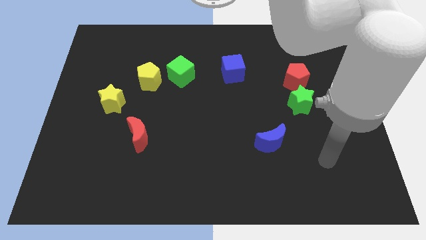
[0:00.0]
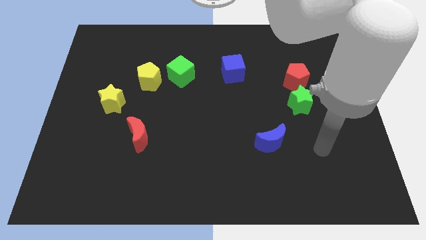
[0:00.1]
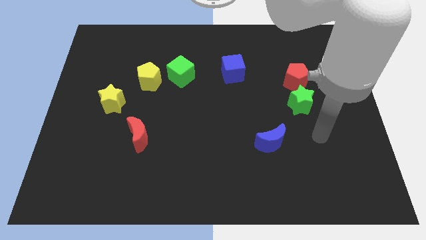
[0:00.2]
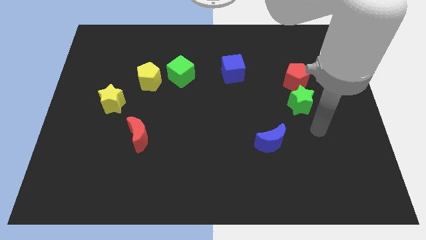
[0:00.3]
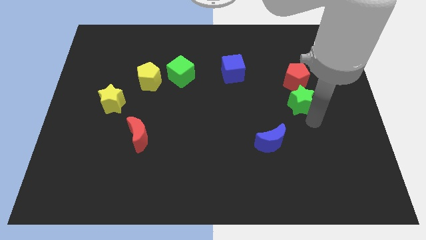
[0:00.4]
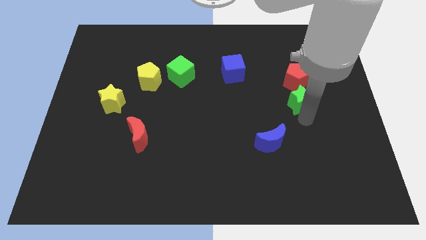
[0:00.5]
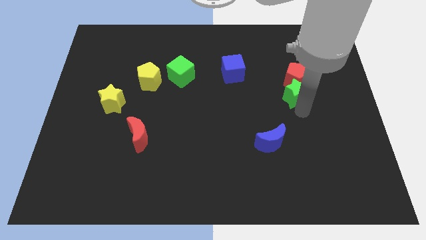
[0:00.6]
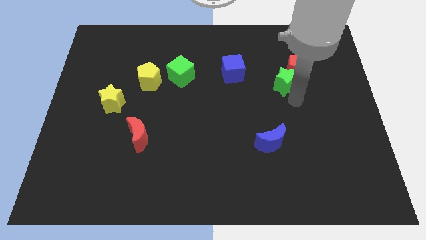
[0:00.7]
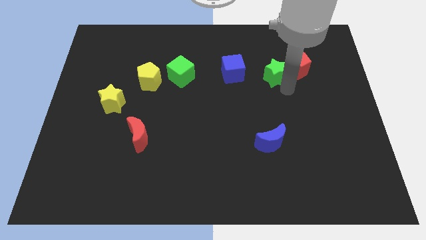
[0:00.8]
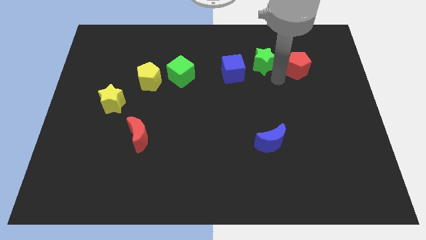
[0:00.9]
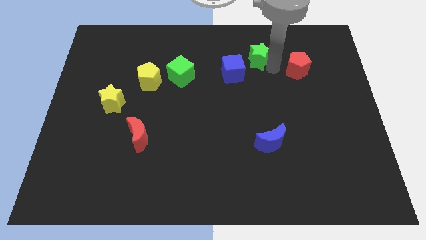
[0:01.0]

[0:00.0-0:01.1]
separate the red pentagon from the green star

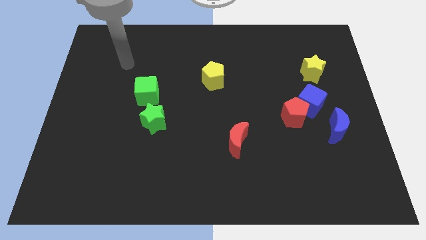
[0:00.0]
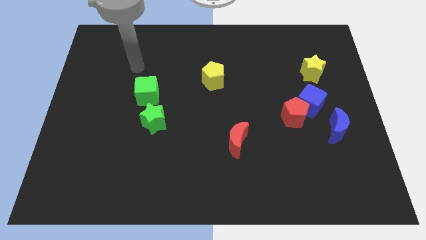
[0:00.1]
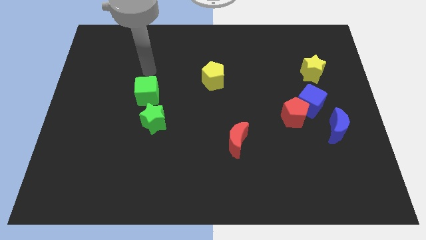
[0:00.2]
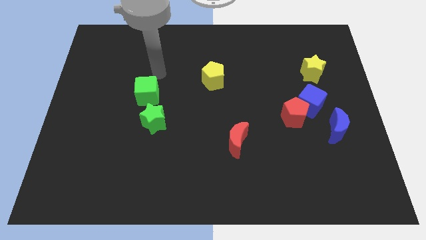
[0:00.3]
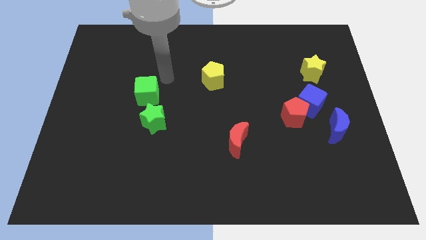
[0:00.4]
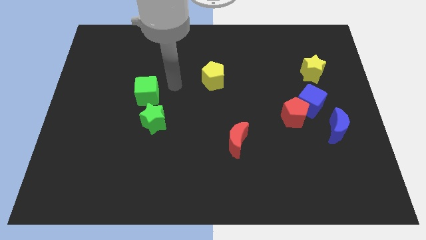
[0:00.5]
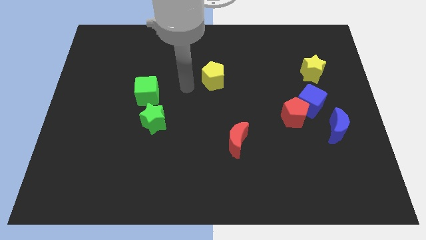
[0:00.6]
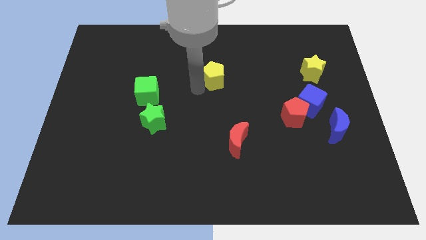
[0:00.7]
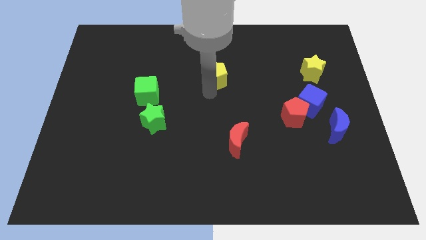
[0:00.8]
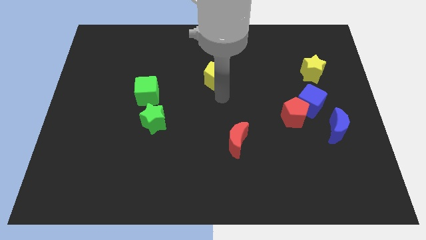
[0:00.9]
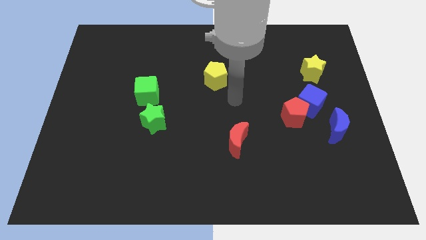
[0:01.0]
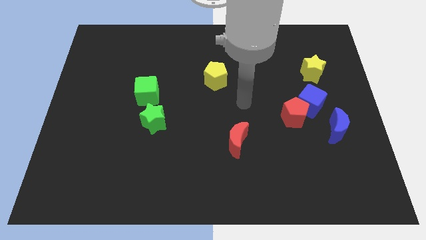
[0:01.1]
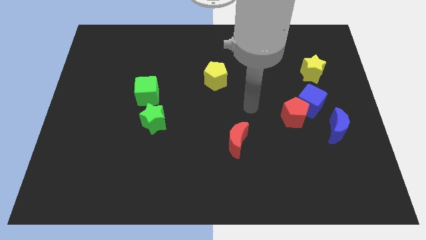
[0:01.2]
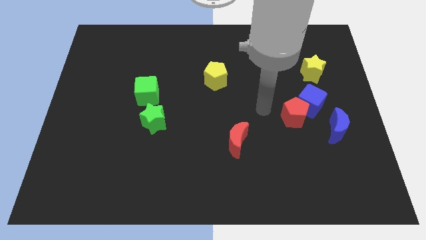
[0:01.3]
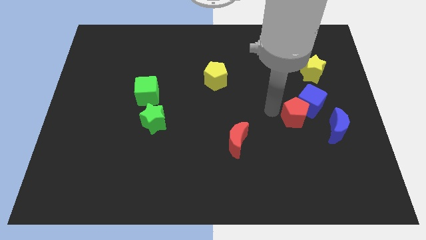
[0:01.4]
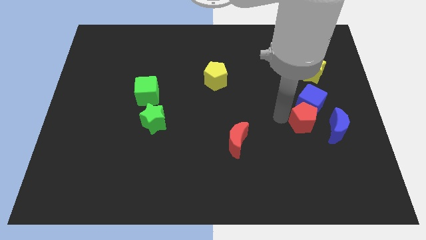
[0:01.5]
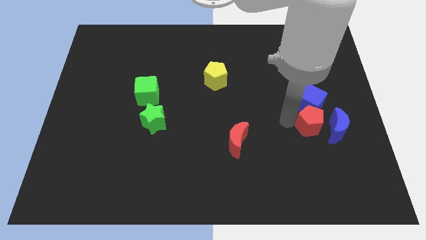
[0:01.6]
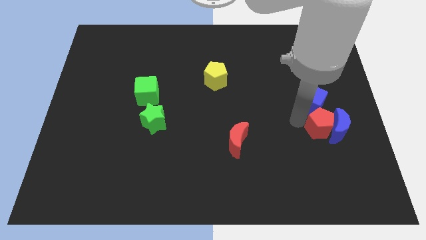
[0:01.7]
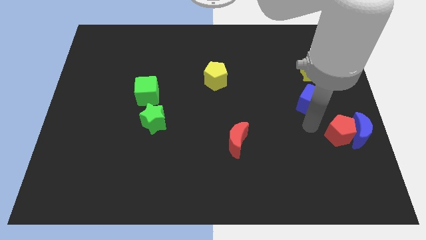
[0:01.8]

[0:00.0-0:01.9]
move the blue cube away from the red pentagon and blue moon

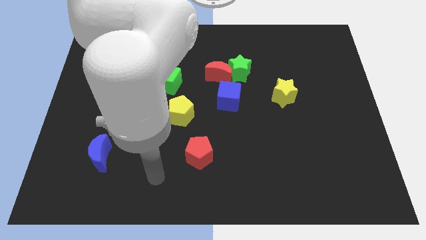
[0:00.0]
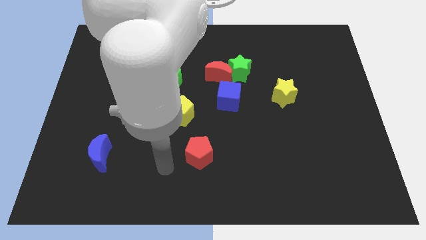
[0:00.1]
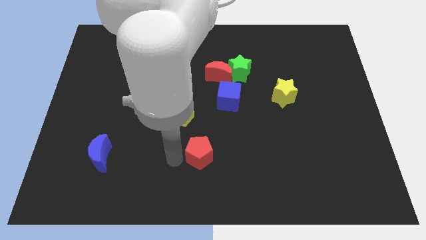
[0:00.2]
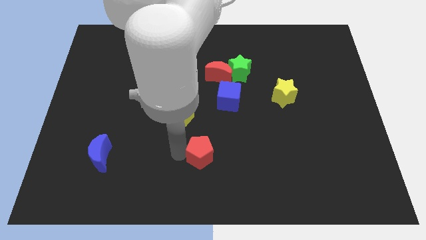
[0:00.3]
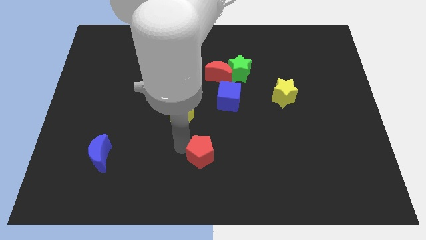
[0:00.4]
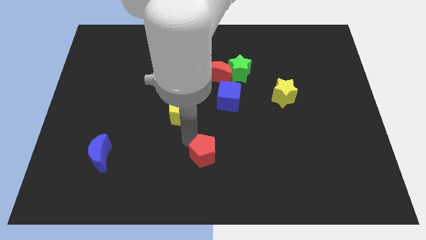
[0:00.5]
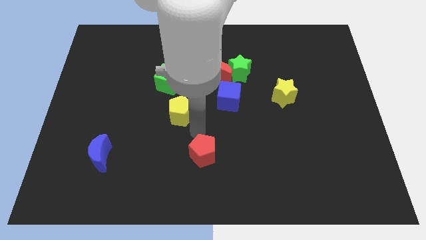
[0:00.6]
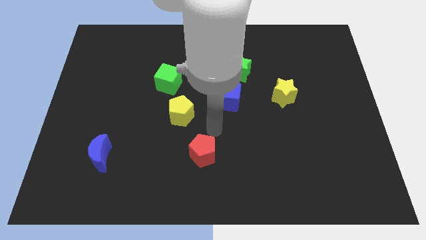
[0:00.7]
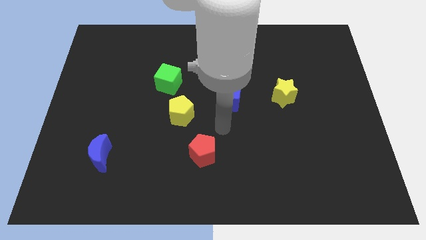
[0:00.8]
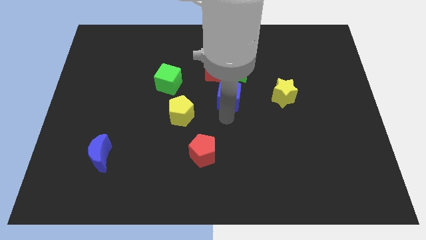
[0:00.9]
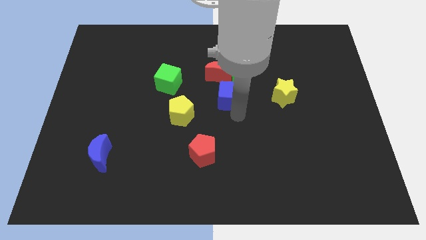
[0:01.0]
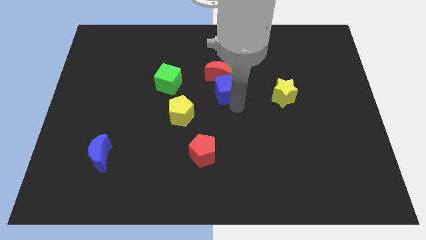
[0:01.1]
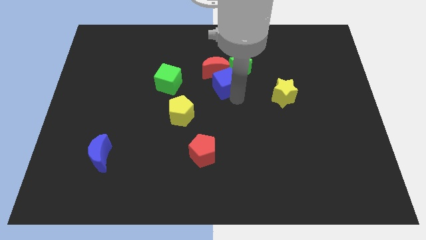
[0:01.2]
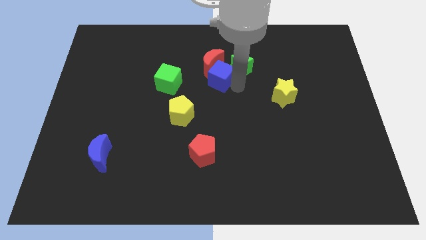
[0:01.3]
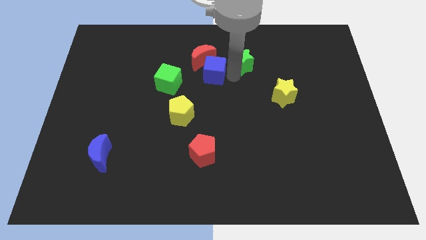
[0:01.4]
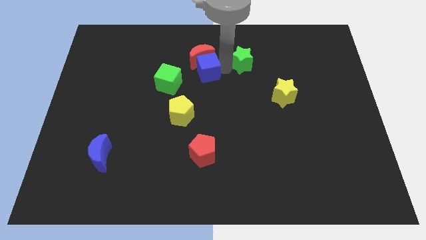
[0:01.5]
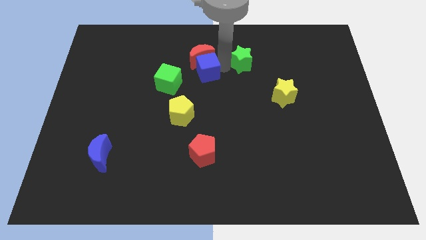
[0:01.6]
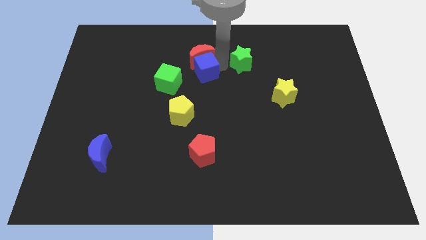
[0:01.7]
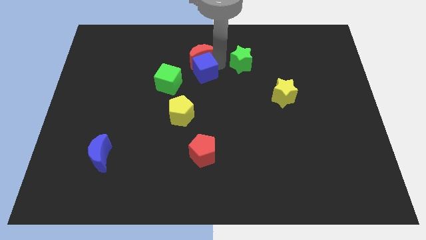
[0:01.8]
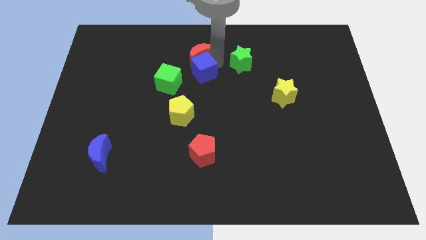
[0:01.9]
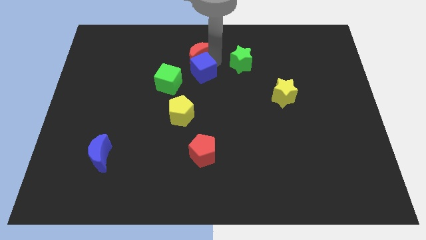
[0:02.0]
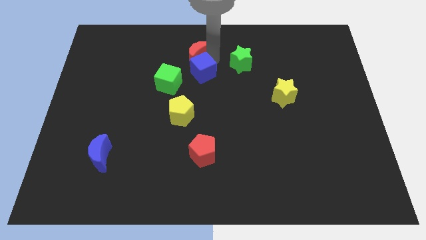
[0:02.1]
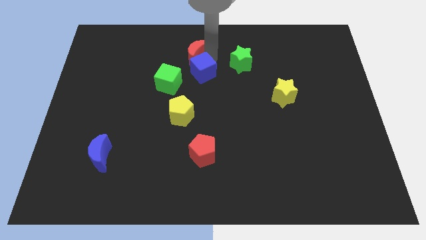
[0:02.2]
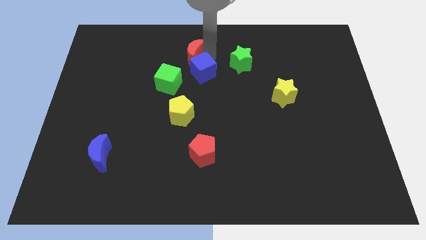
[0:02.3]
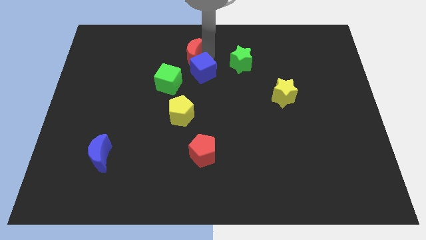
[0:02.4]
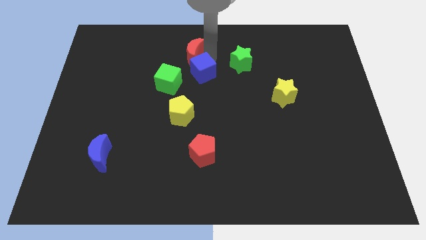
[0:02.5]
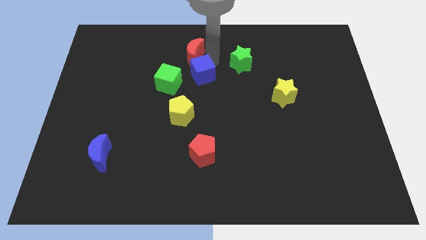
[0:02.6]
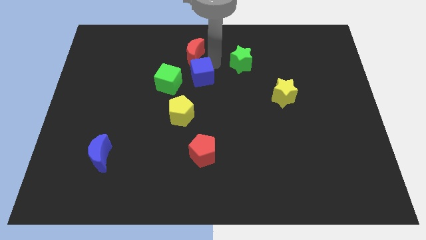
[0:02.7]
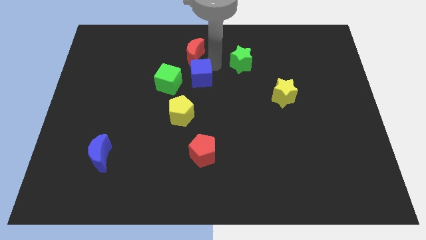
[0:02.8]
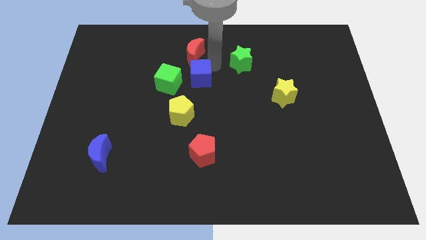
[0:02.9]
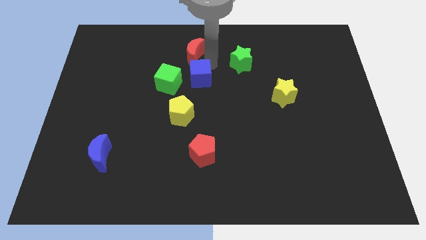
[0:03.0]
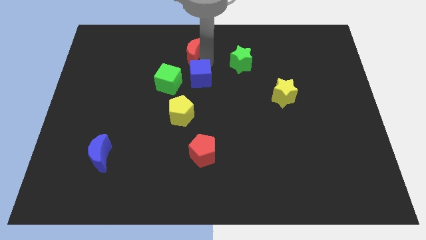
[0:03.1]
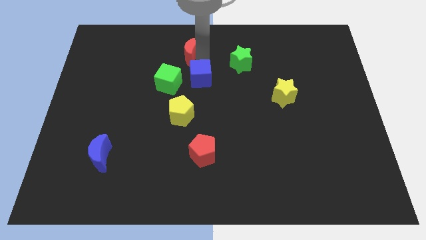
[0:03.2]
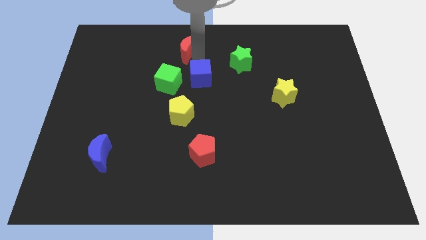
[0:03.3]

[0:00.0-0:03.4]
separate the red moon from the green star and blue cube

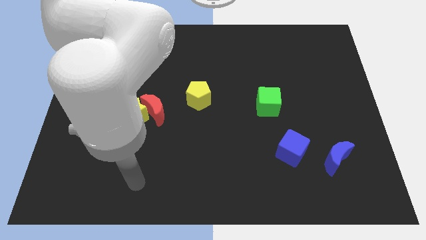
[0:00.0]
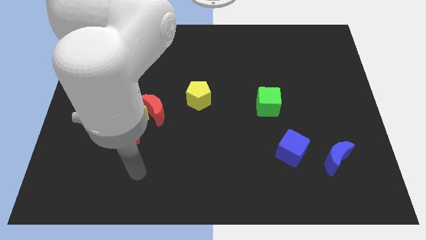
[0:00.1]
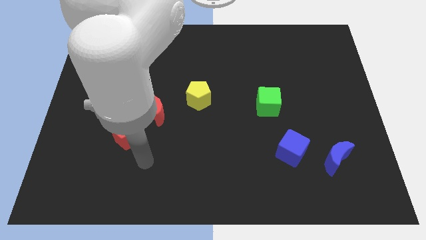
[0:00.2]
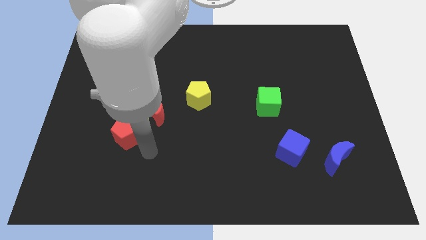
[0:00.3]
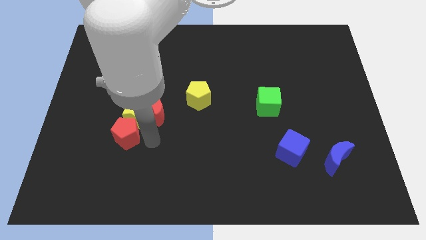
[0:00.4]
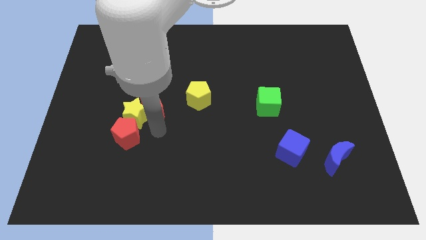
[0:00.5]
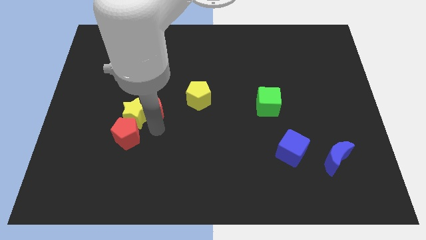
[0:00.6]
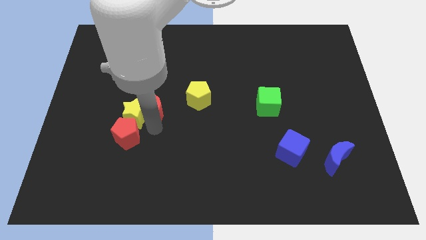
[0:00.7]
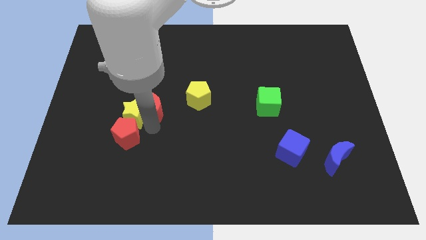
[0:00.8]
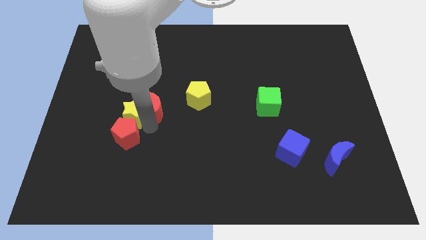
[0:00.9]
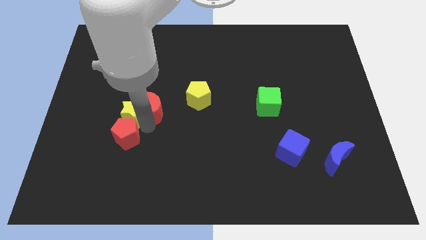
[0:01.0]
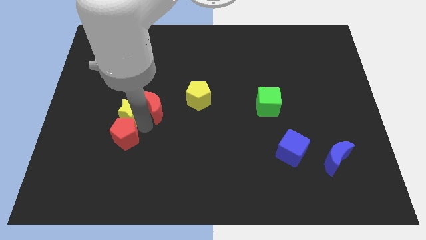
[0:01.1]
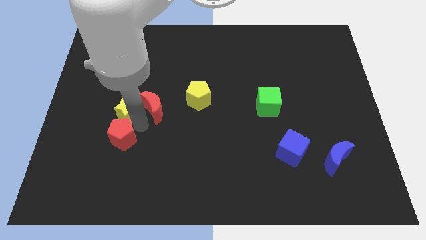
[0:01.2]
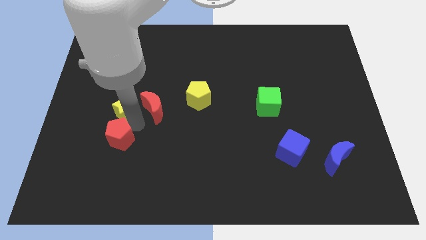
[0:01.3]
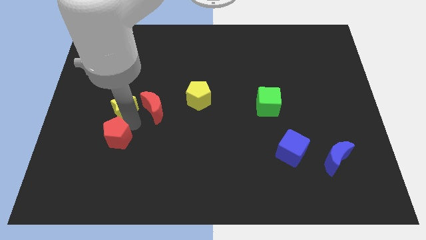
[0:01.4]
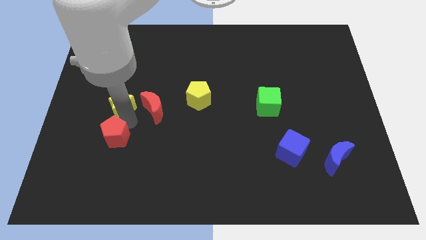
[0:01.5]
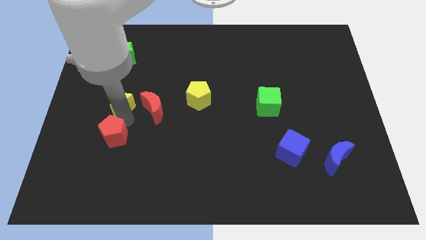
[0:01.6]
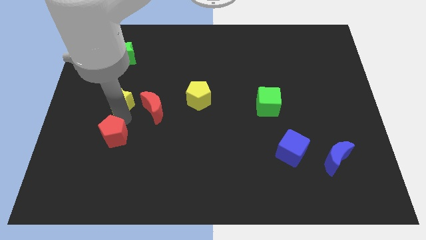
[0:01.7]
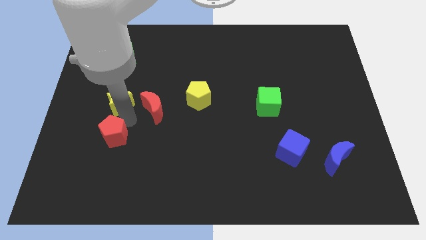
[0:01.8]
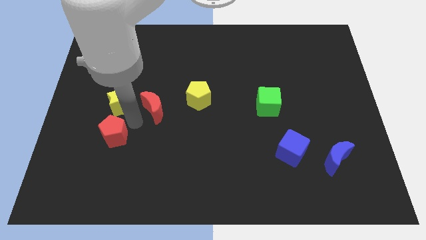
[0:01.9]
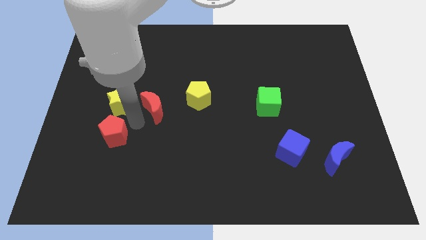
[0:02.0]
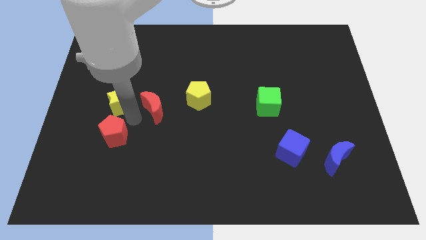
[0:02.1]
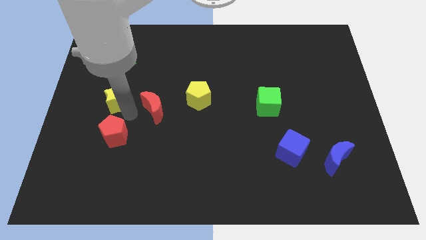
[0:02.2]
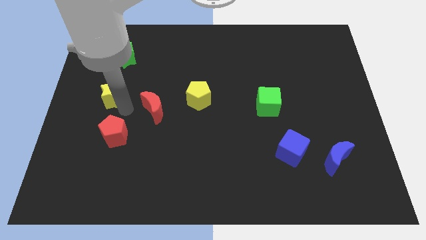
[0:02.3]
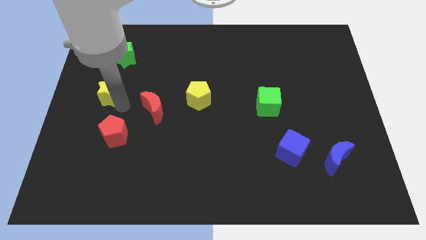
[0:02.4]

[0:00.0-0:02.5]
move the yellow star away from the red moon and red pentagon

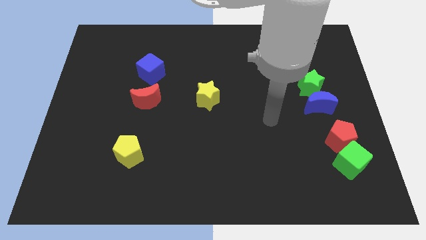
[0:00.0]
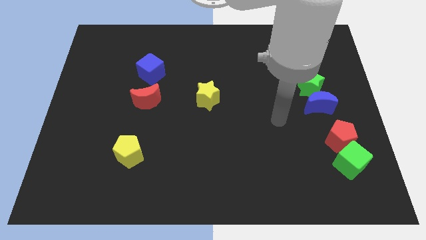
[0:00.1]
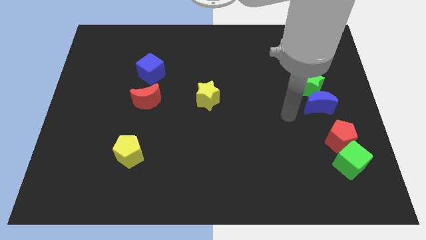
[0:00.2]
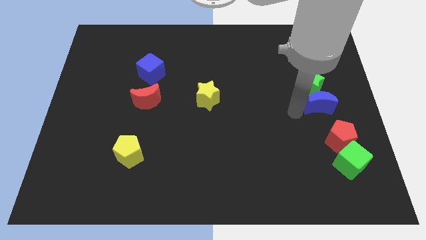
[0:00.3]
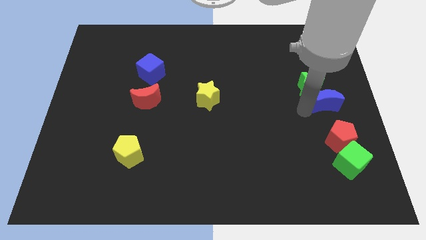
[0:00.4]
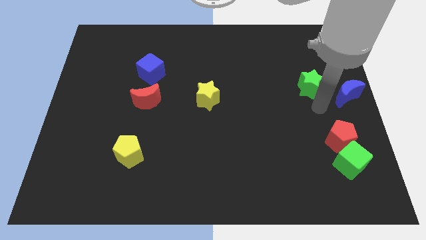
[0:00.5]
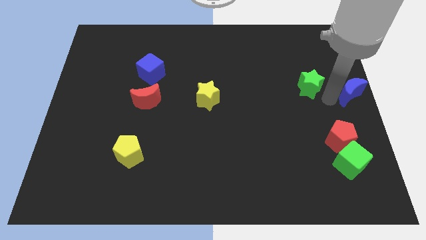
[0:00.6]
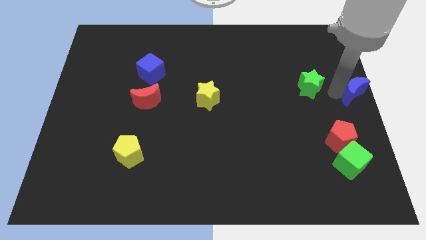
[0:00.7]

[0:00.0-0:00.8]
separate the green star from the blue moon
